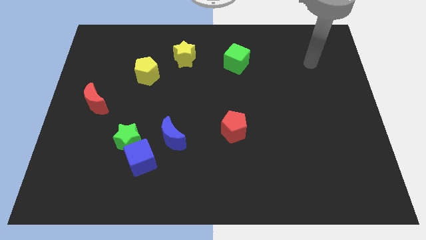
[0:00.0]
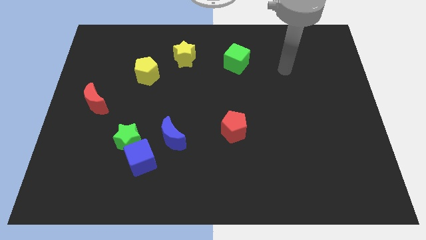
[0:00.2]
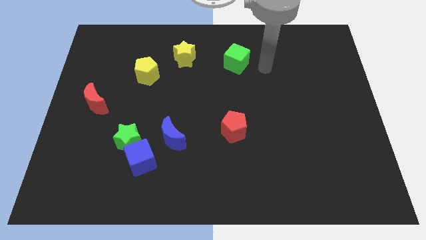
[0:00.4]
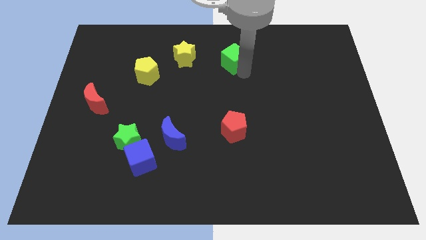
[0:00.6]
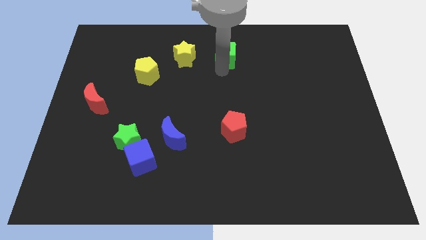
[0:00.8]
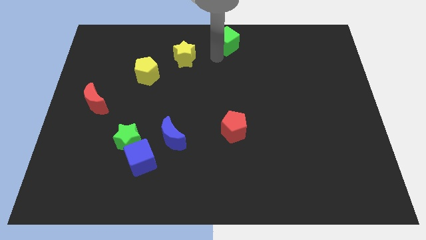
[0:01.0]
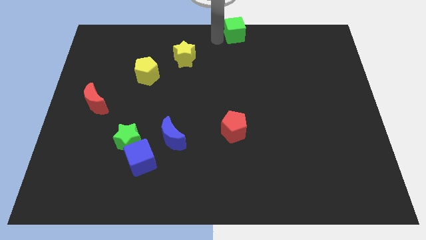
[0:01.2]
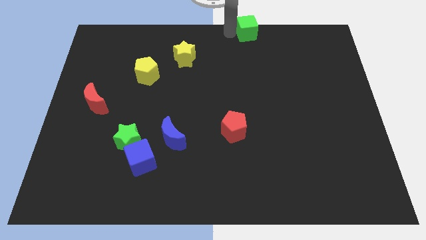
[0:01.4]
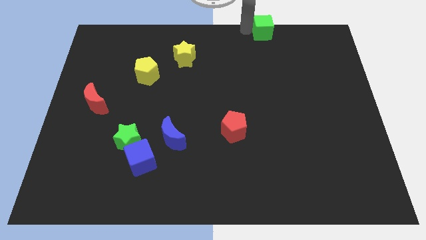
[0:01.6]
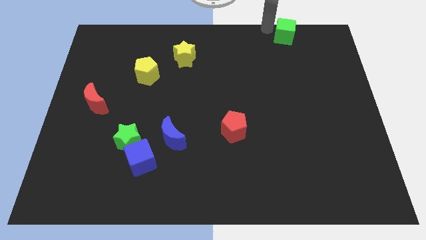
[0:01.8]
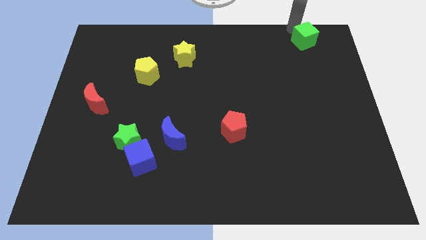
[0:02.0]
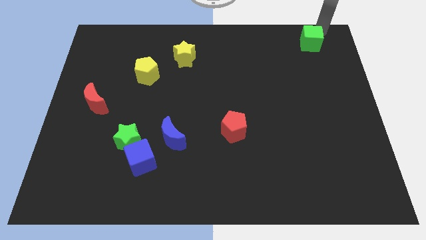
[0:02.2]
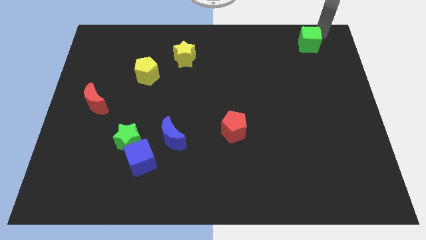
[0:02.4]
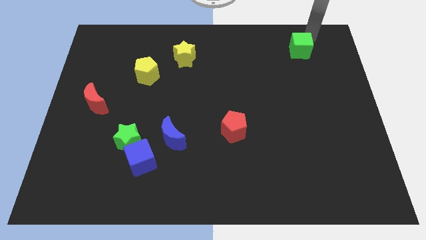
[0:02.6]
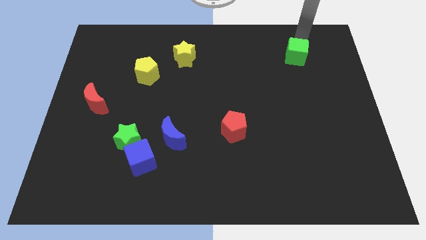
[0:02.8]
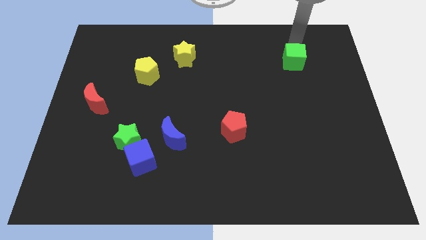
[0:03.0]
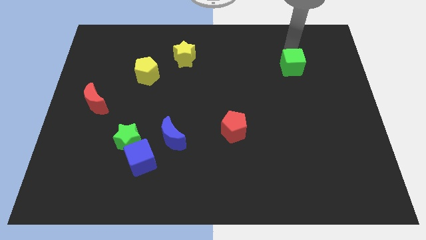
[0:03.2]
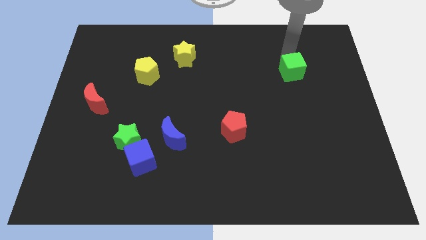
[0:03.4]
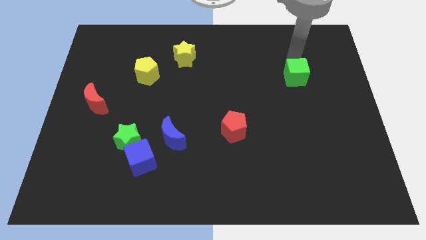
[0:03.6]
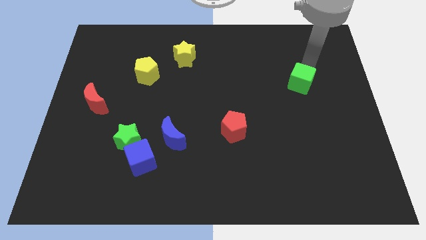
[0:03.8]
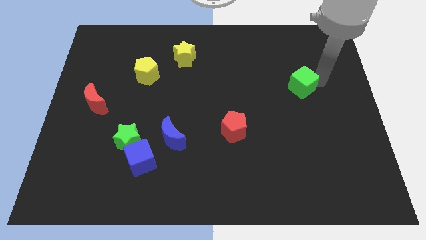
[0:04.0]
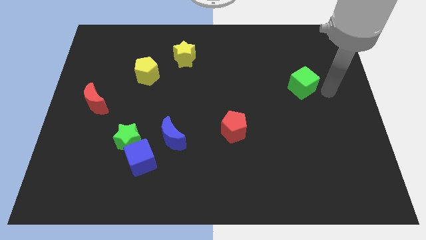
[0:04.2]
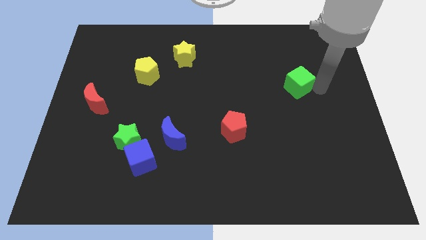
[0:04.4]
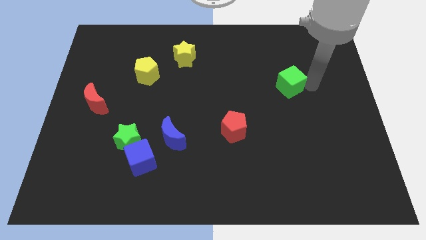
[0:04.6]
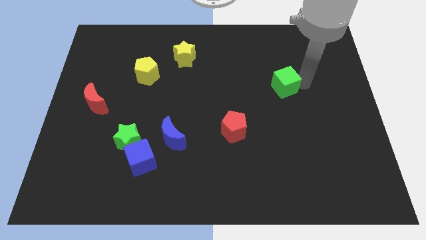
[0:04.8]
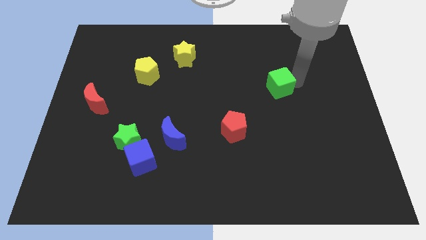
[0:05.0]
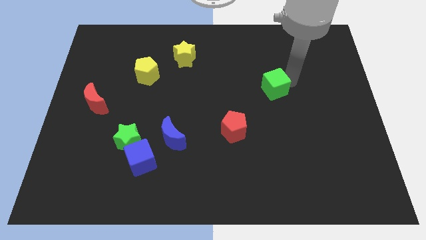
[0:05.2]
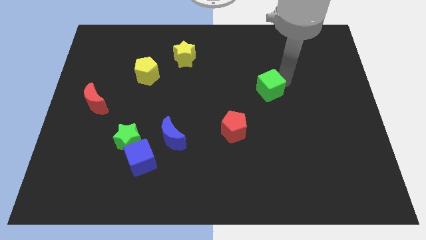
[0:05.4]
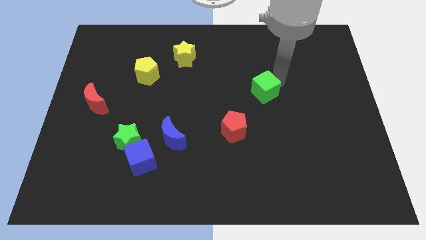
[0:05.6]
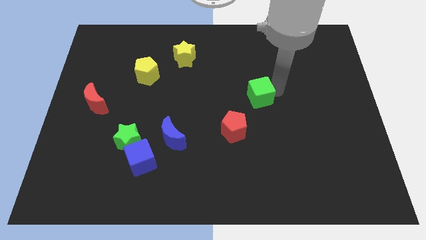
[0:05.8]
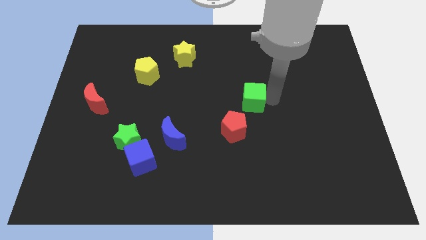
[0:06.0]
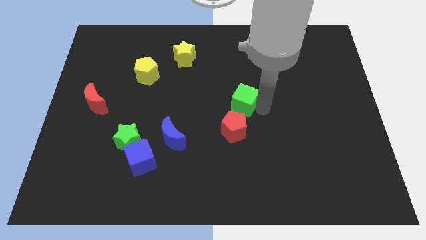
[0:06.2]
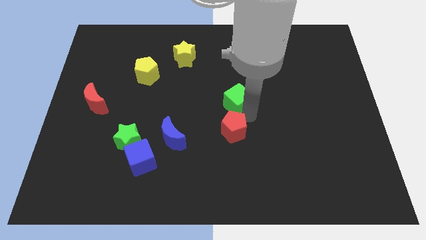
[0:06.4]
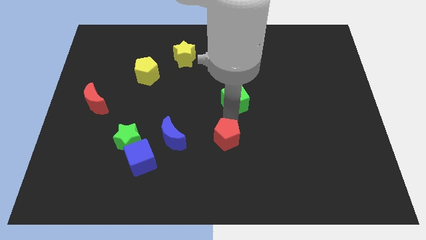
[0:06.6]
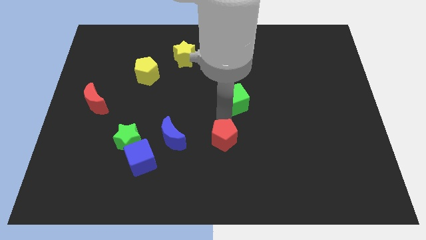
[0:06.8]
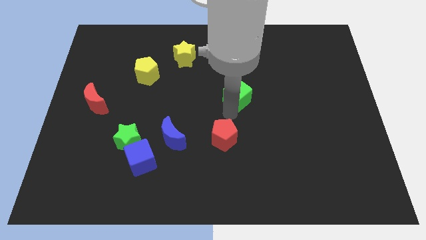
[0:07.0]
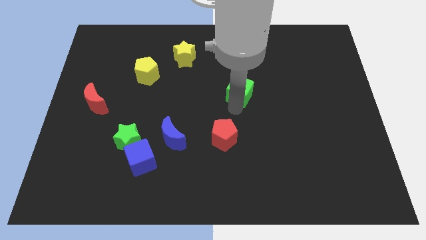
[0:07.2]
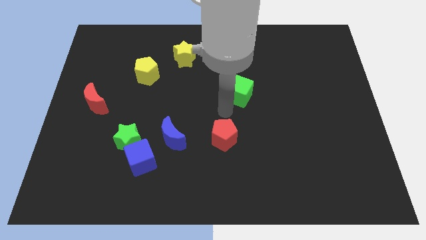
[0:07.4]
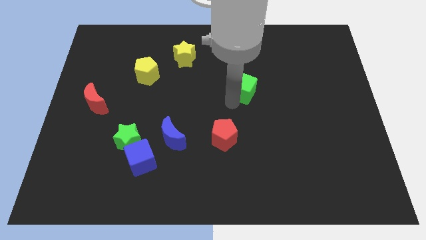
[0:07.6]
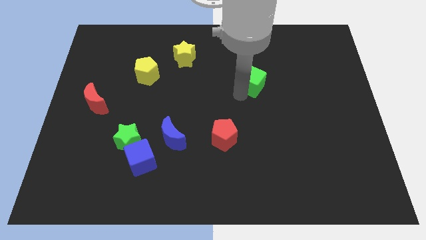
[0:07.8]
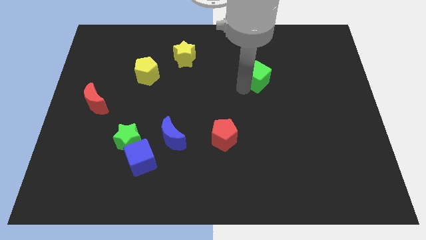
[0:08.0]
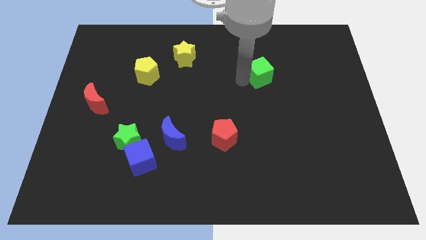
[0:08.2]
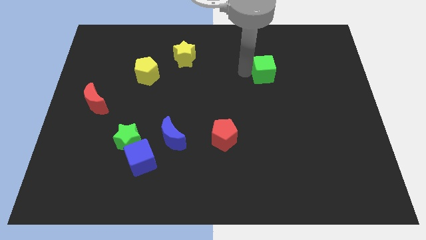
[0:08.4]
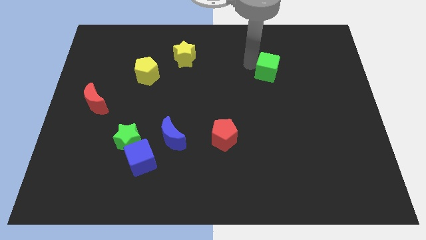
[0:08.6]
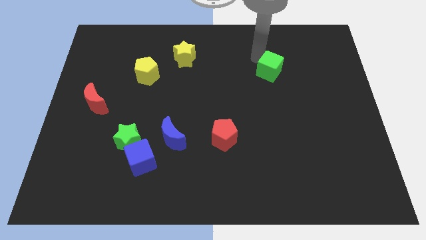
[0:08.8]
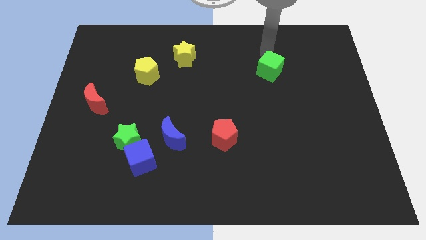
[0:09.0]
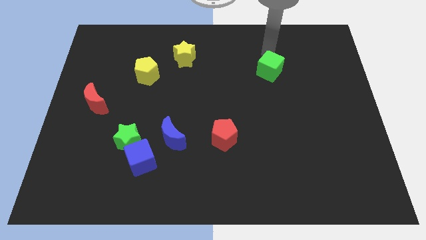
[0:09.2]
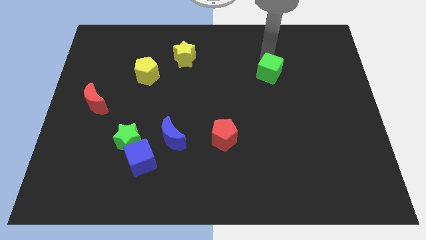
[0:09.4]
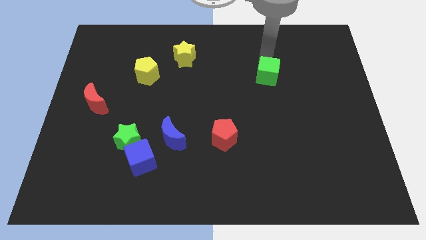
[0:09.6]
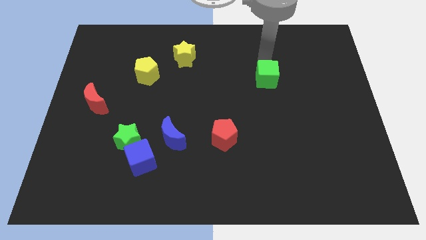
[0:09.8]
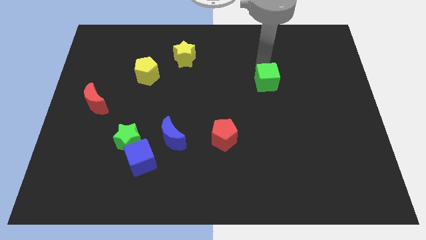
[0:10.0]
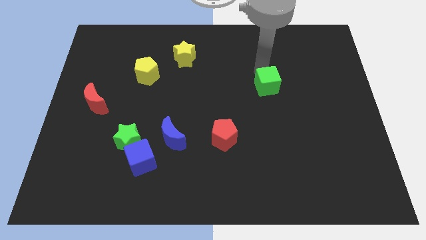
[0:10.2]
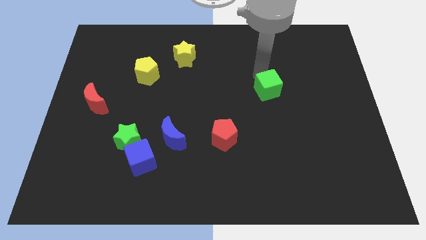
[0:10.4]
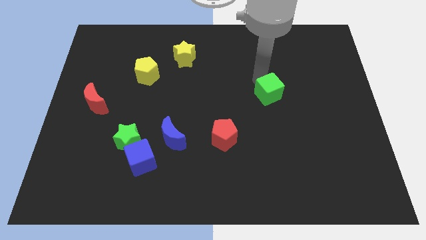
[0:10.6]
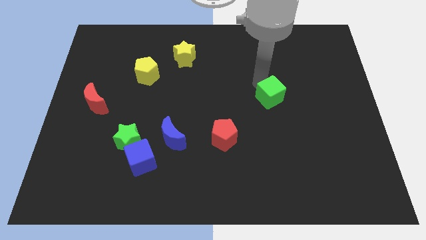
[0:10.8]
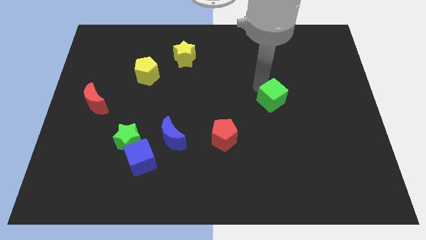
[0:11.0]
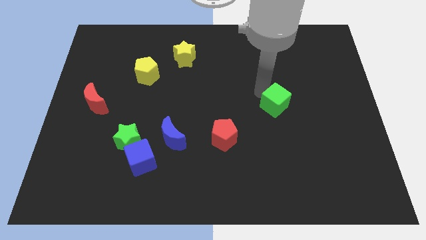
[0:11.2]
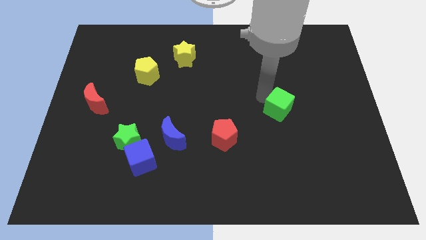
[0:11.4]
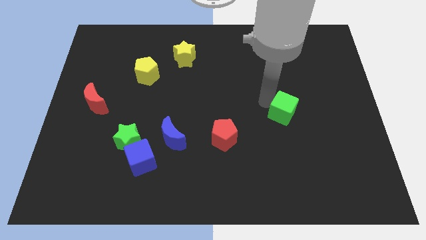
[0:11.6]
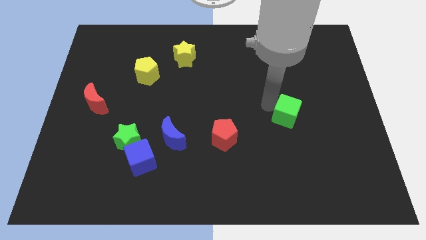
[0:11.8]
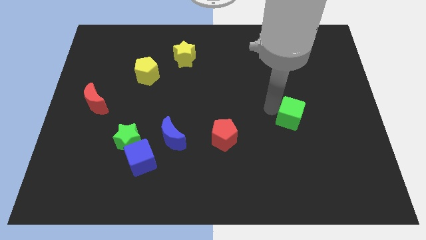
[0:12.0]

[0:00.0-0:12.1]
push the green cube down and to the right diagonally

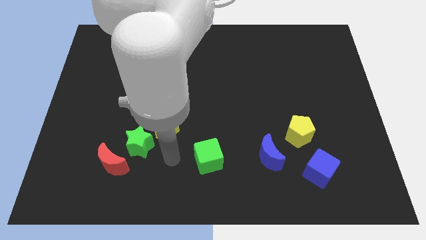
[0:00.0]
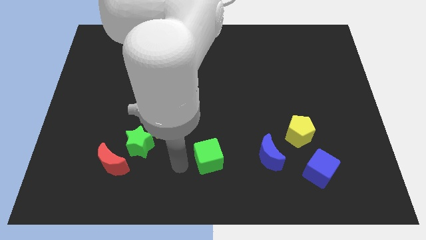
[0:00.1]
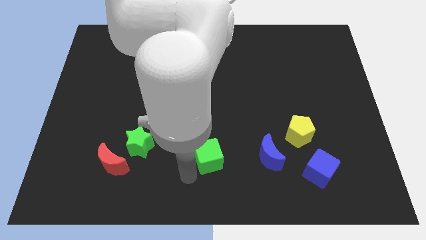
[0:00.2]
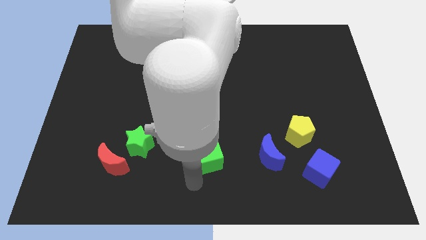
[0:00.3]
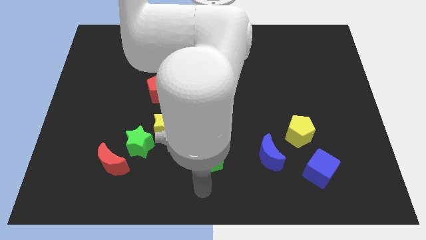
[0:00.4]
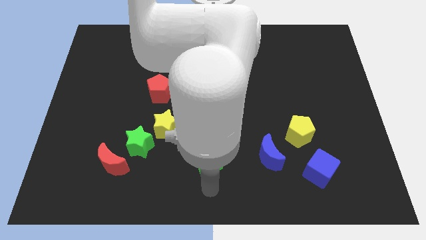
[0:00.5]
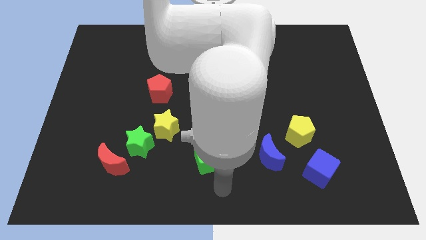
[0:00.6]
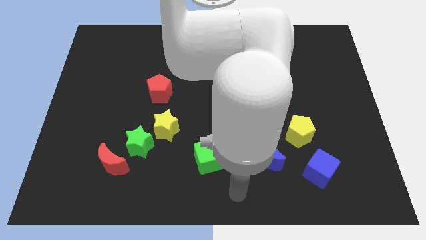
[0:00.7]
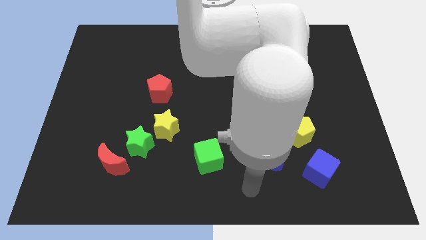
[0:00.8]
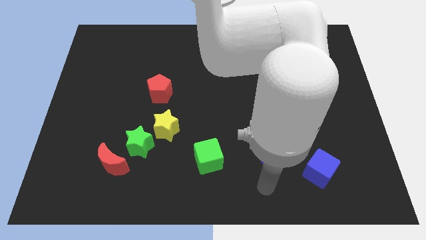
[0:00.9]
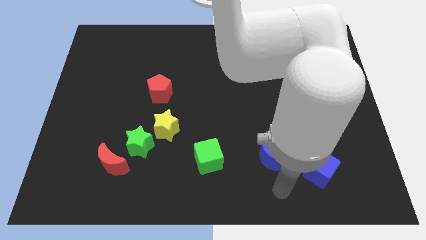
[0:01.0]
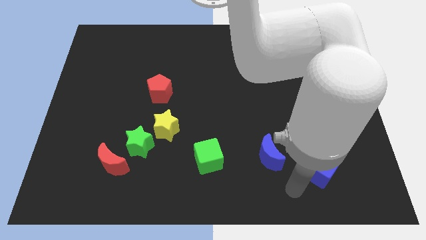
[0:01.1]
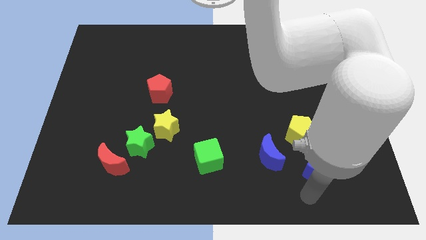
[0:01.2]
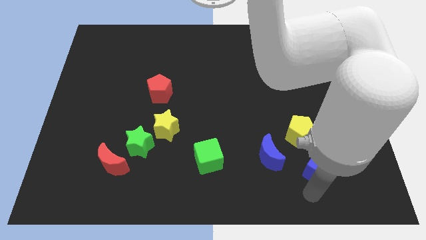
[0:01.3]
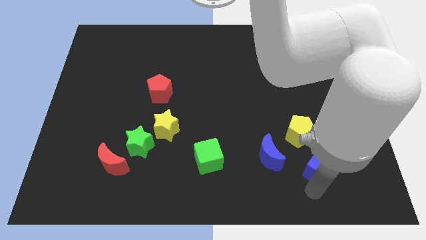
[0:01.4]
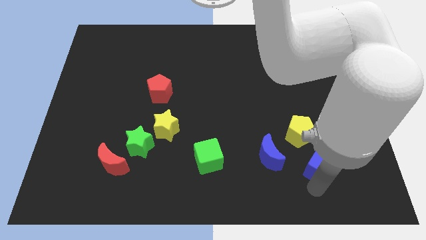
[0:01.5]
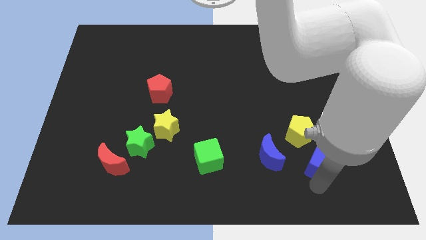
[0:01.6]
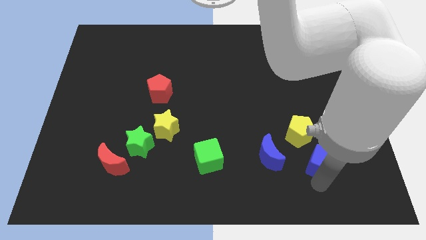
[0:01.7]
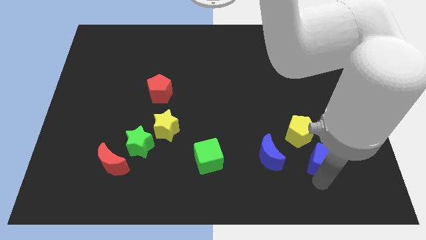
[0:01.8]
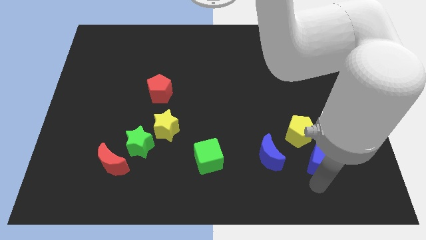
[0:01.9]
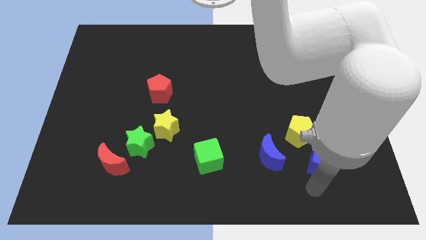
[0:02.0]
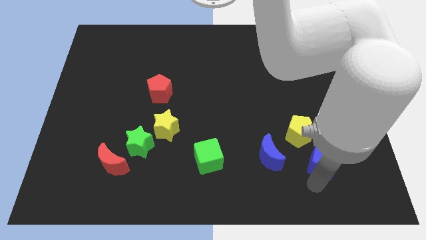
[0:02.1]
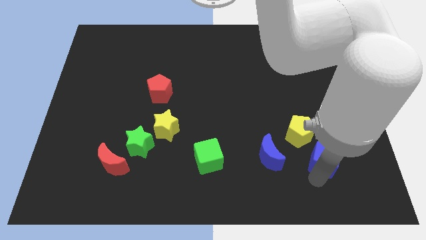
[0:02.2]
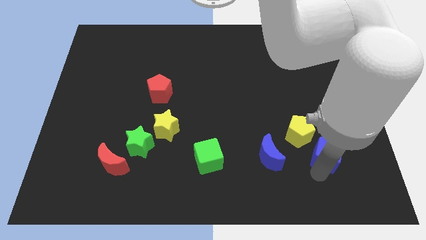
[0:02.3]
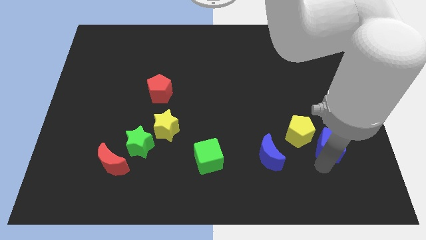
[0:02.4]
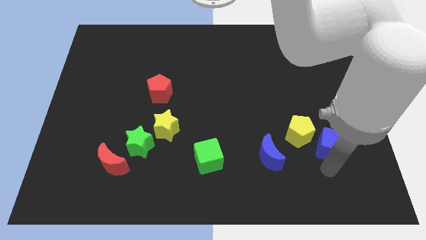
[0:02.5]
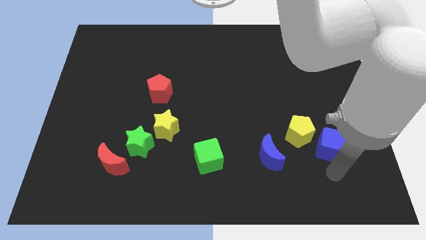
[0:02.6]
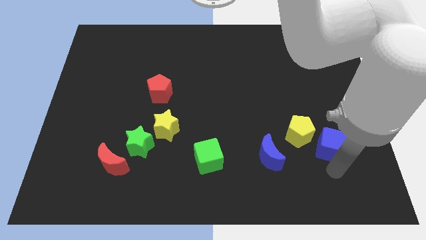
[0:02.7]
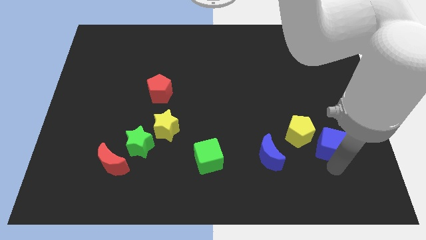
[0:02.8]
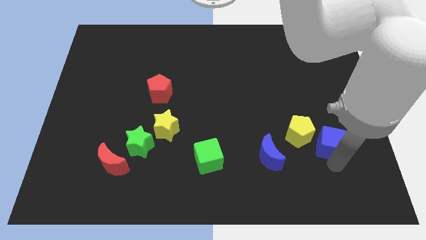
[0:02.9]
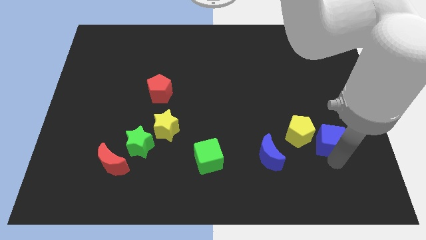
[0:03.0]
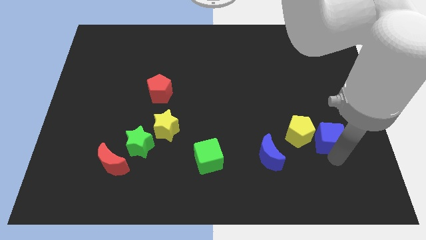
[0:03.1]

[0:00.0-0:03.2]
slightly move the blue cube up
